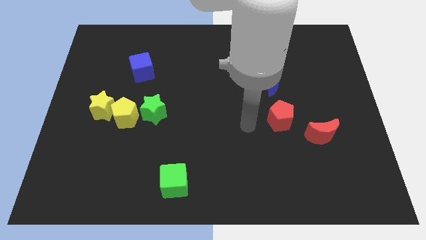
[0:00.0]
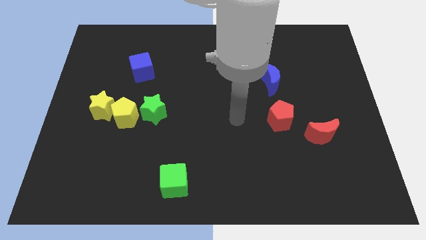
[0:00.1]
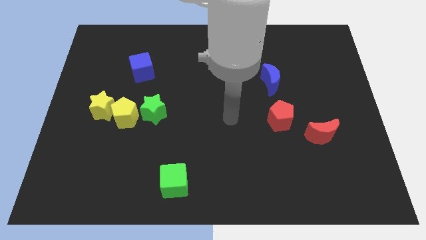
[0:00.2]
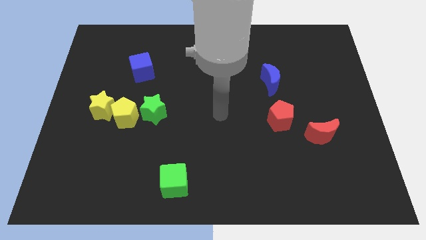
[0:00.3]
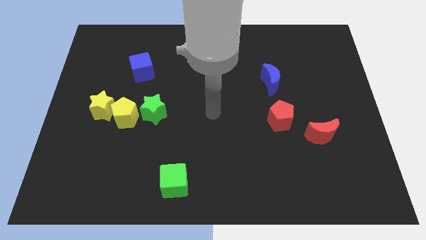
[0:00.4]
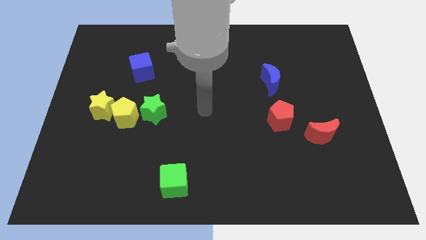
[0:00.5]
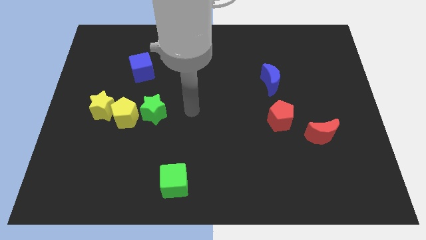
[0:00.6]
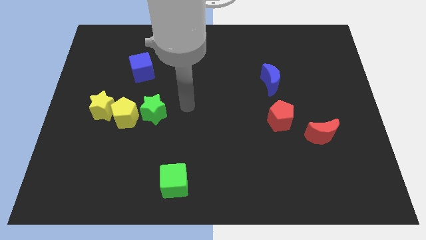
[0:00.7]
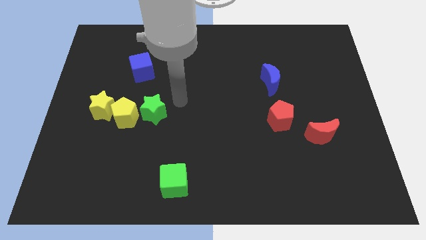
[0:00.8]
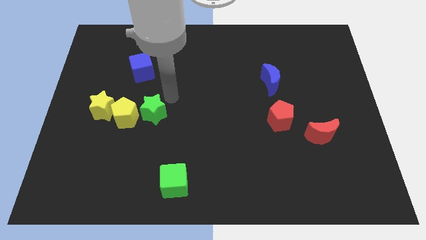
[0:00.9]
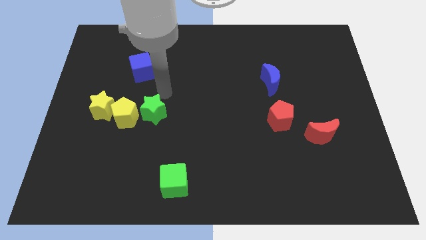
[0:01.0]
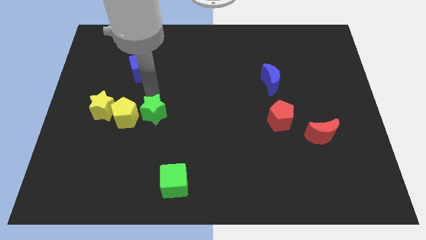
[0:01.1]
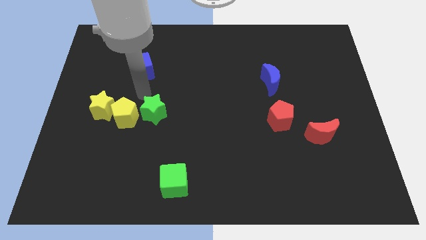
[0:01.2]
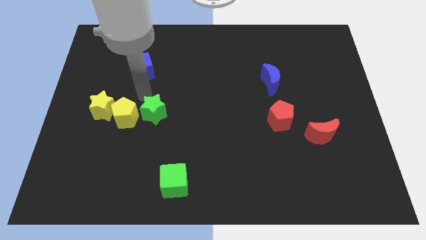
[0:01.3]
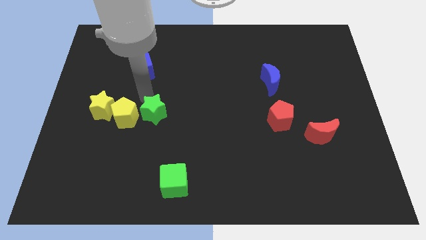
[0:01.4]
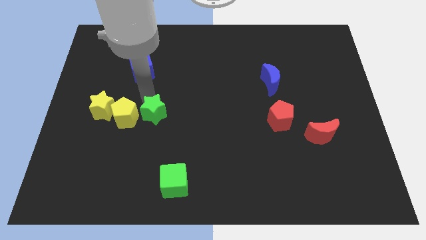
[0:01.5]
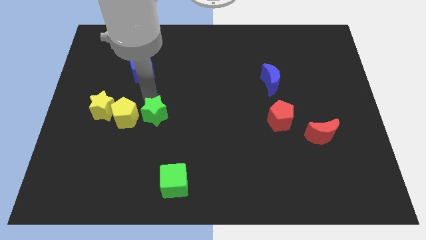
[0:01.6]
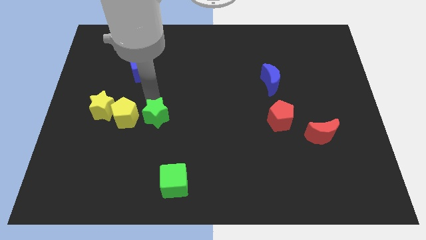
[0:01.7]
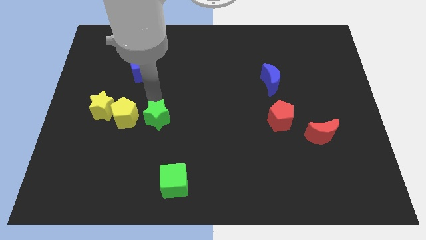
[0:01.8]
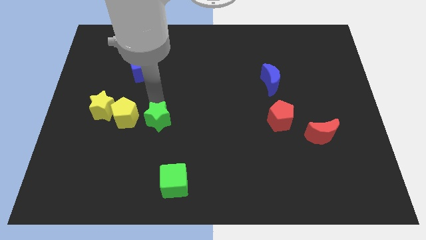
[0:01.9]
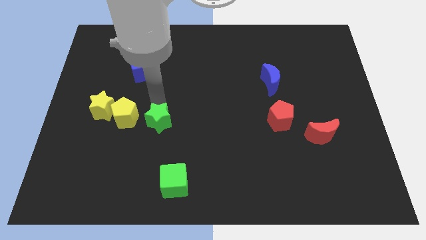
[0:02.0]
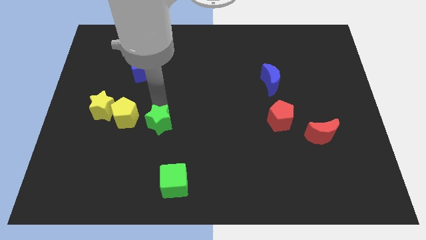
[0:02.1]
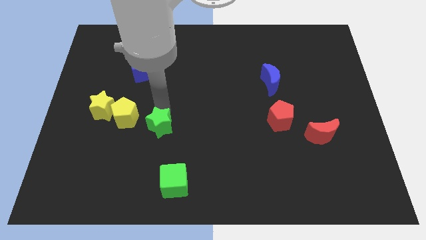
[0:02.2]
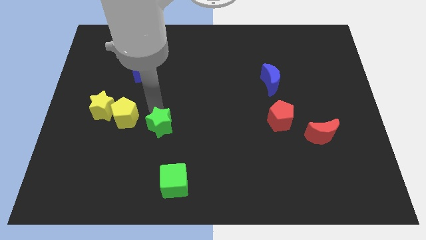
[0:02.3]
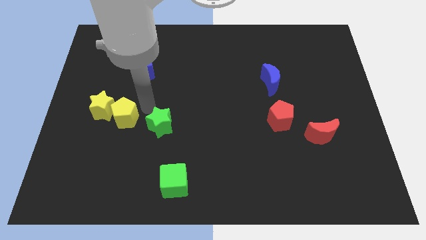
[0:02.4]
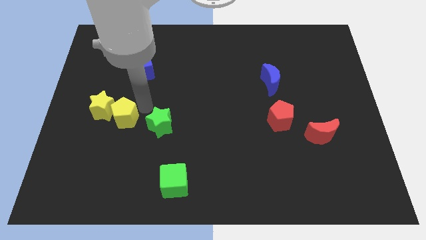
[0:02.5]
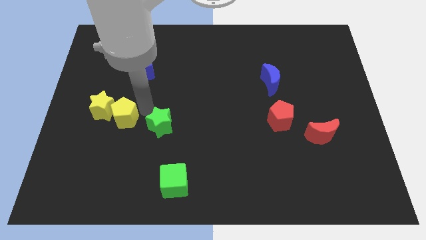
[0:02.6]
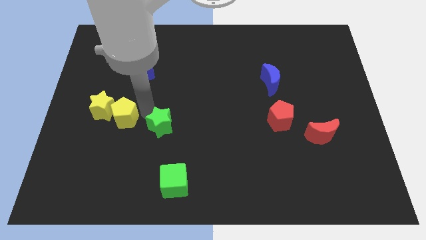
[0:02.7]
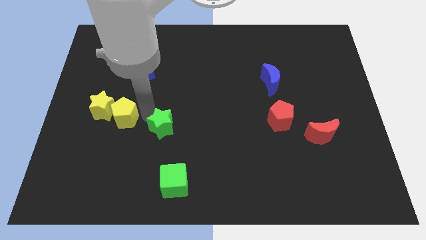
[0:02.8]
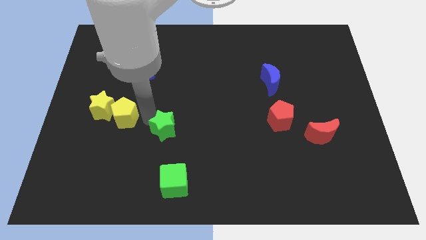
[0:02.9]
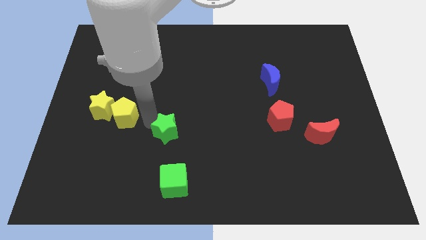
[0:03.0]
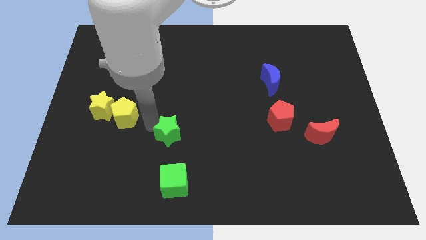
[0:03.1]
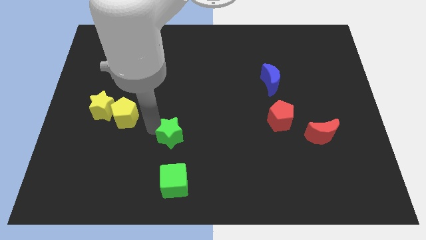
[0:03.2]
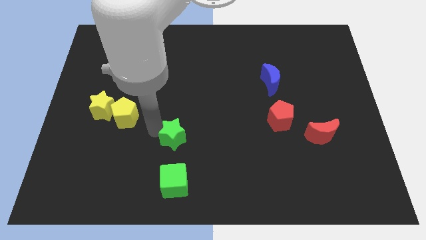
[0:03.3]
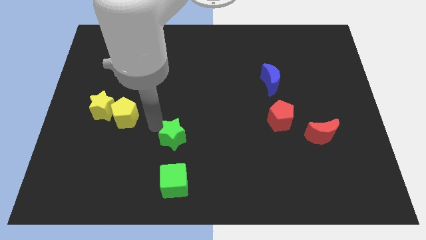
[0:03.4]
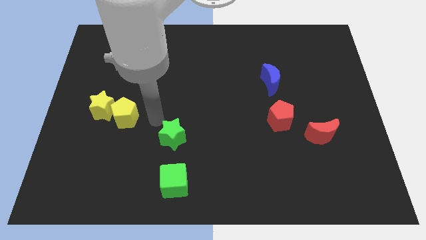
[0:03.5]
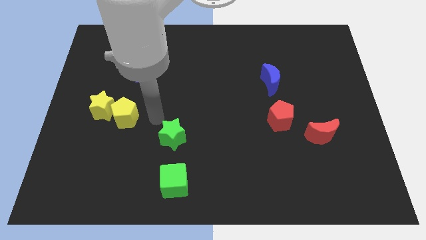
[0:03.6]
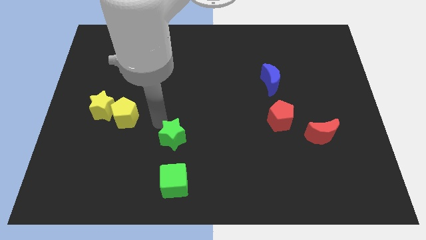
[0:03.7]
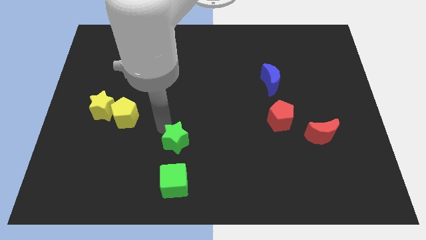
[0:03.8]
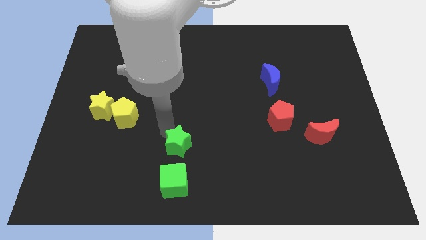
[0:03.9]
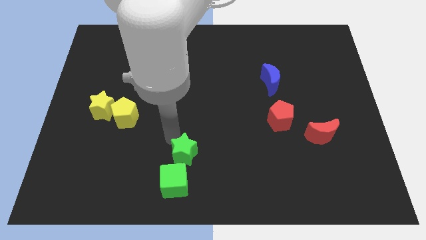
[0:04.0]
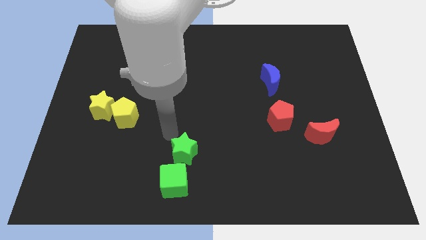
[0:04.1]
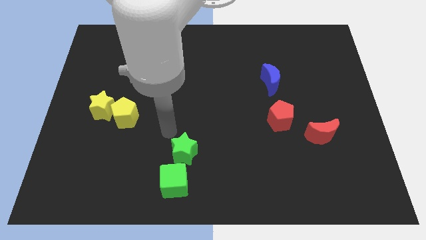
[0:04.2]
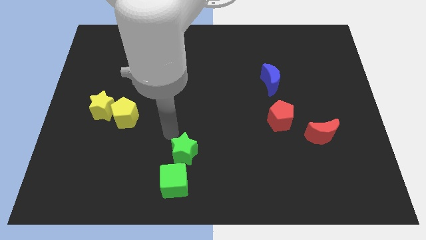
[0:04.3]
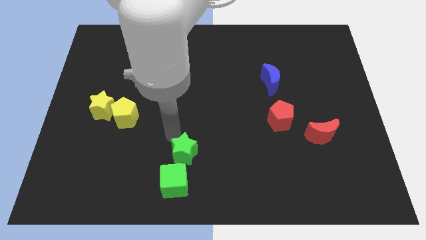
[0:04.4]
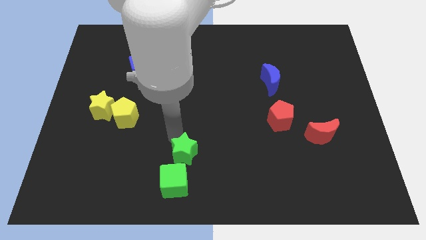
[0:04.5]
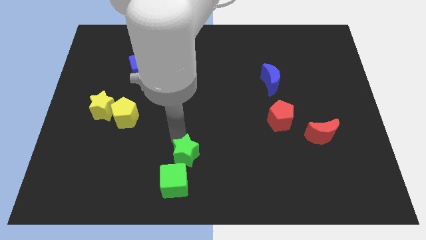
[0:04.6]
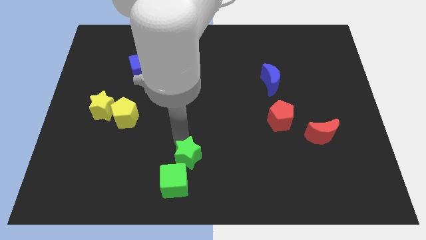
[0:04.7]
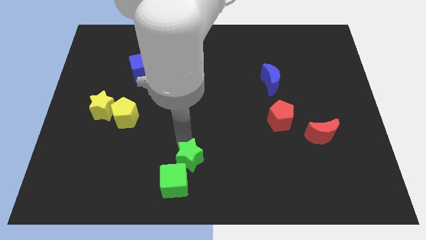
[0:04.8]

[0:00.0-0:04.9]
put the green star to the bottom

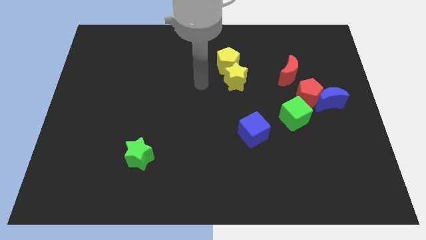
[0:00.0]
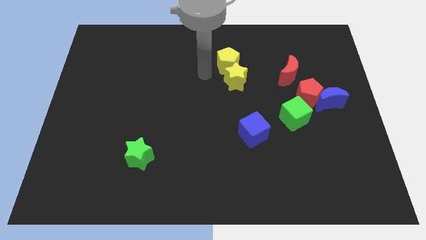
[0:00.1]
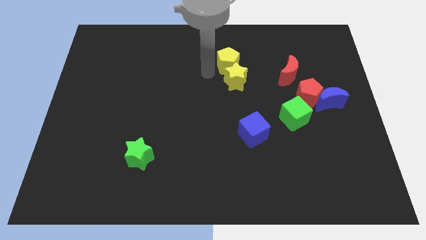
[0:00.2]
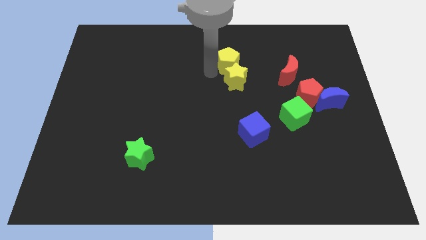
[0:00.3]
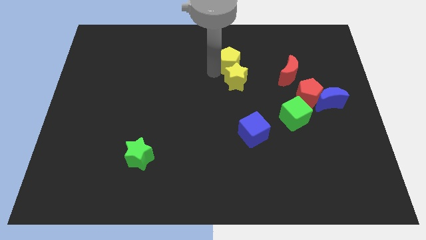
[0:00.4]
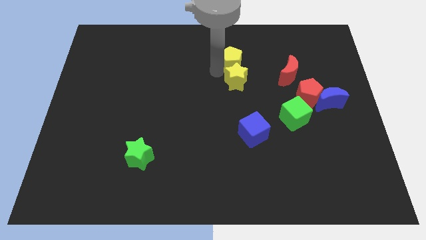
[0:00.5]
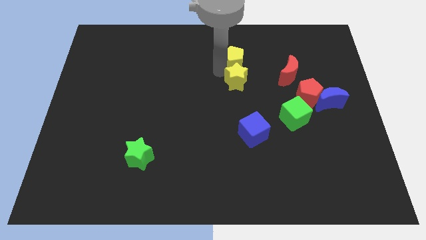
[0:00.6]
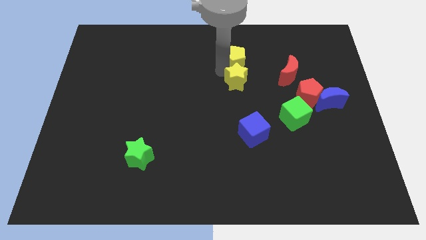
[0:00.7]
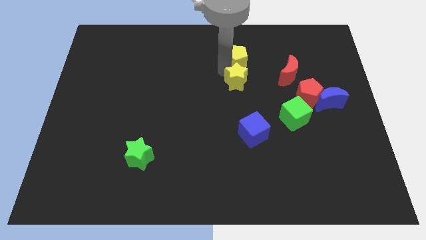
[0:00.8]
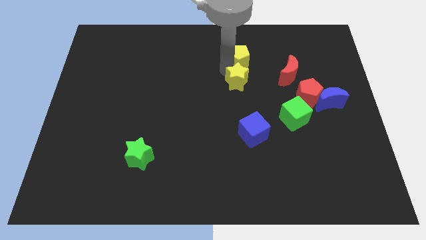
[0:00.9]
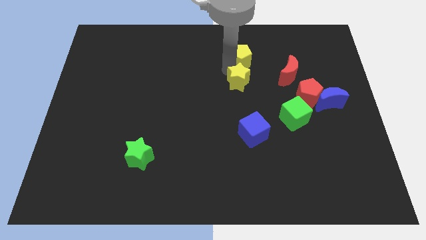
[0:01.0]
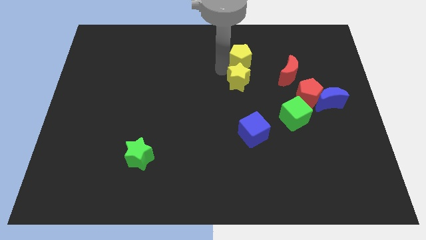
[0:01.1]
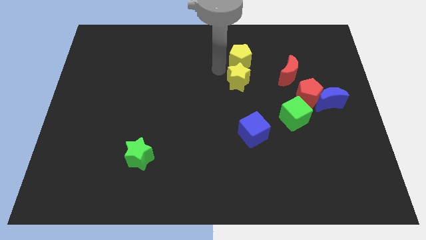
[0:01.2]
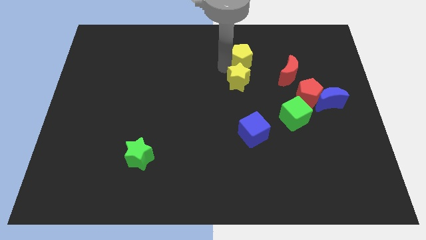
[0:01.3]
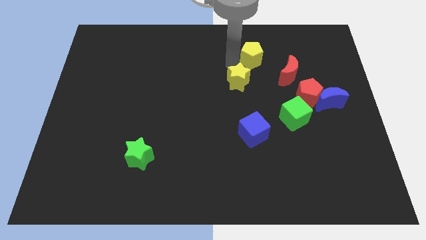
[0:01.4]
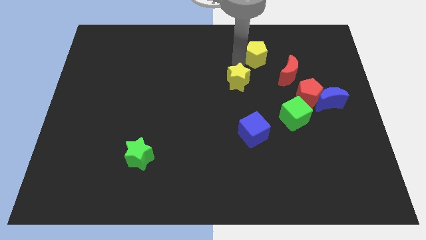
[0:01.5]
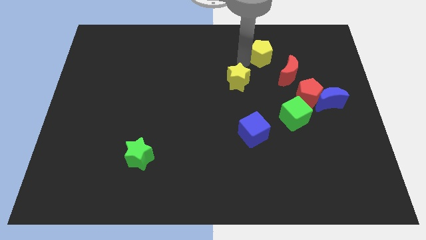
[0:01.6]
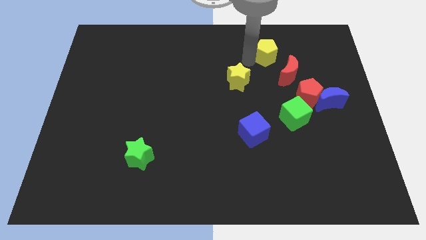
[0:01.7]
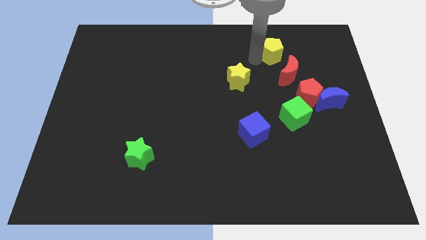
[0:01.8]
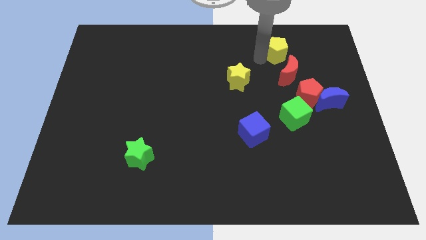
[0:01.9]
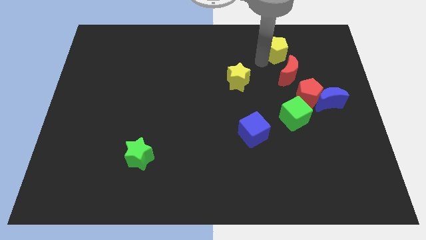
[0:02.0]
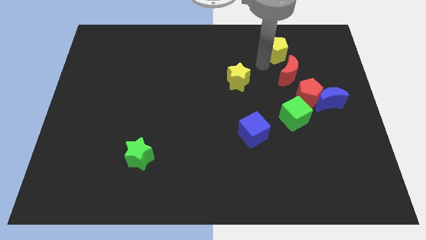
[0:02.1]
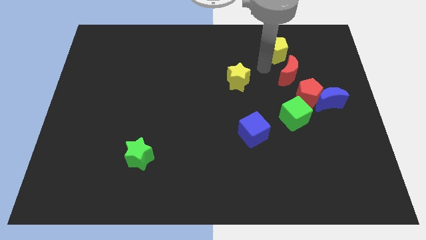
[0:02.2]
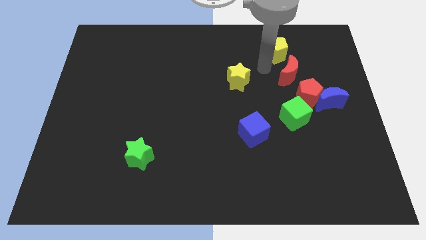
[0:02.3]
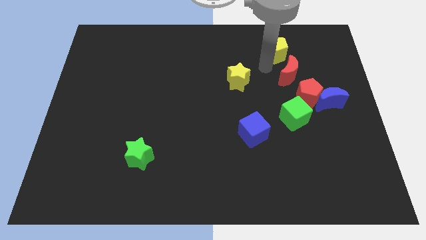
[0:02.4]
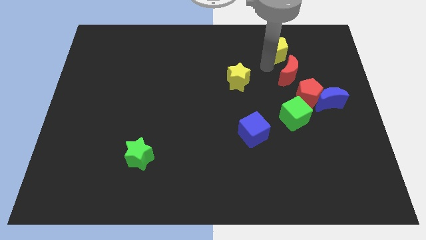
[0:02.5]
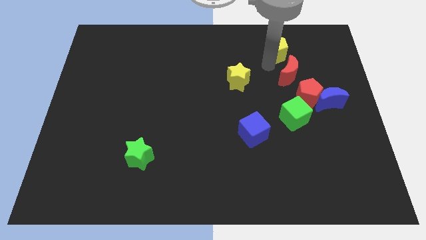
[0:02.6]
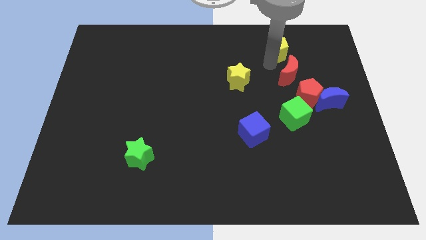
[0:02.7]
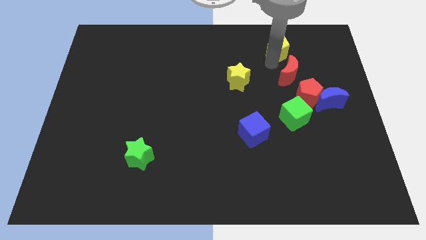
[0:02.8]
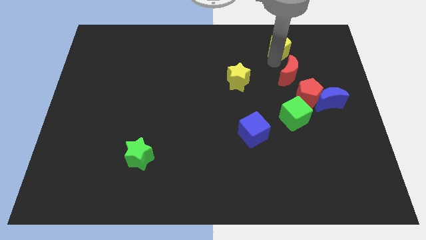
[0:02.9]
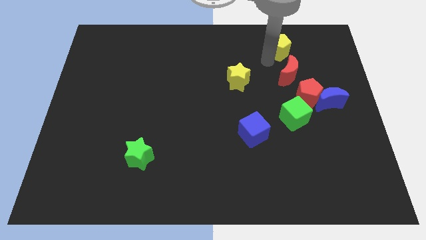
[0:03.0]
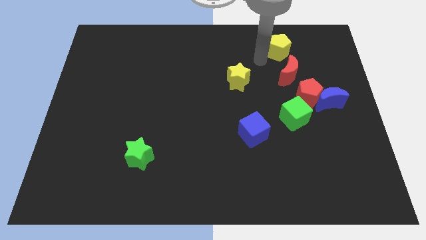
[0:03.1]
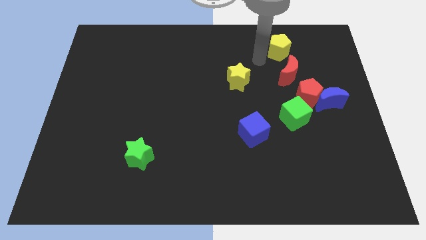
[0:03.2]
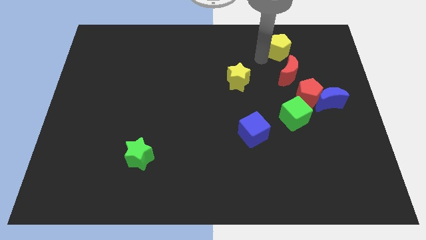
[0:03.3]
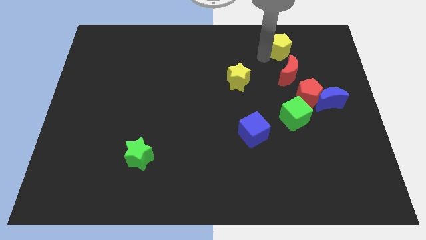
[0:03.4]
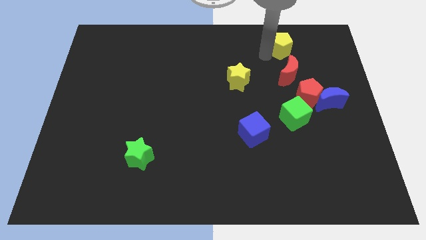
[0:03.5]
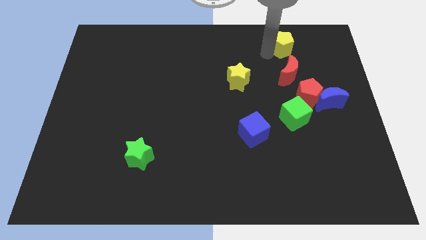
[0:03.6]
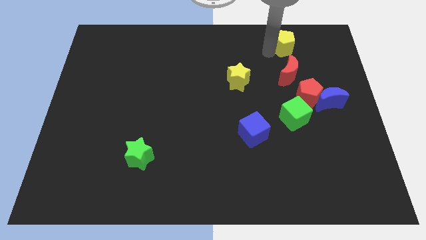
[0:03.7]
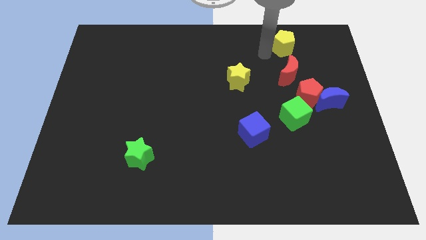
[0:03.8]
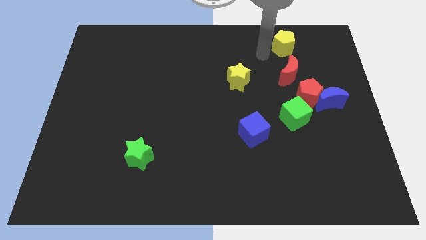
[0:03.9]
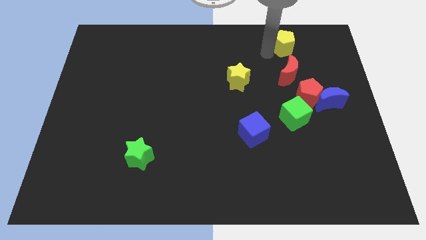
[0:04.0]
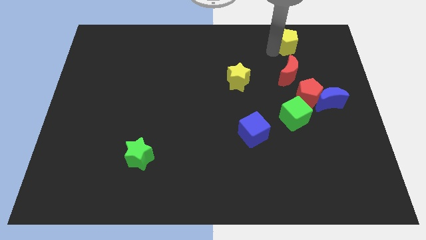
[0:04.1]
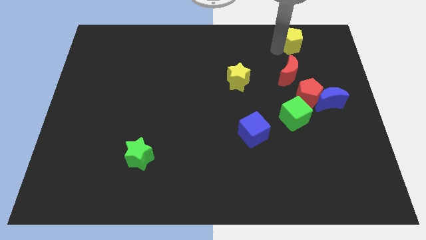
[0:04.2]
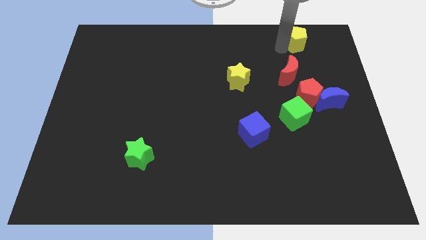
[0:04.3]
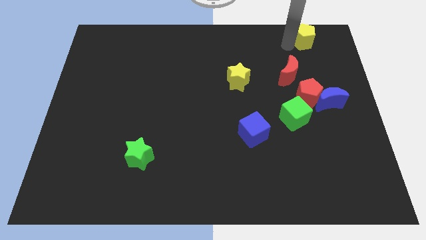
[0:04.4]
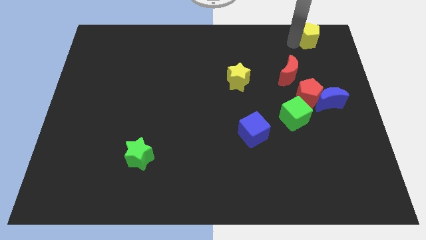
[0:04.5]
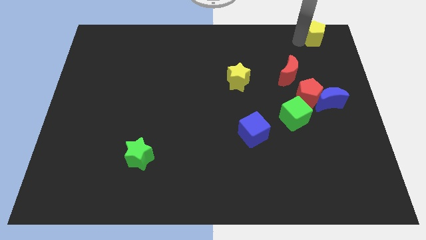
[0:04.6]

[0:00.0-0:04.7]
move the yellow pentagon to the top right
